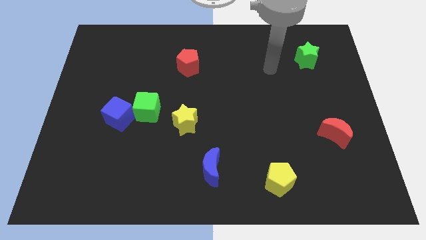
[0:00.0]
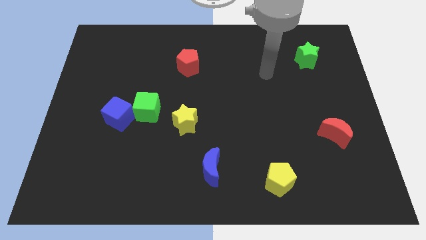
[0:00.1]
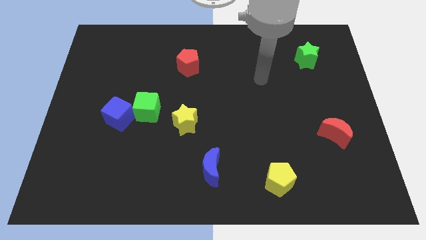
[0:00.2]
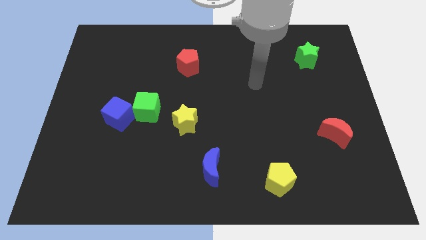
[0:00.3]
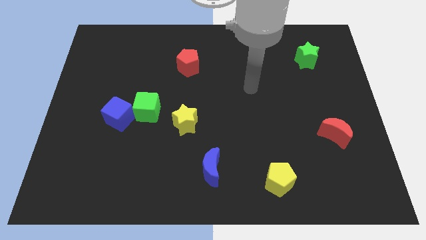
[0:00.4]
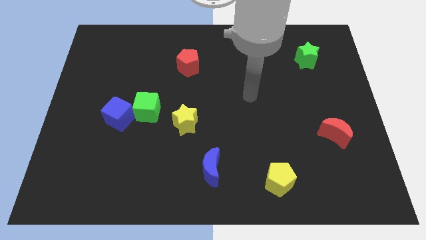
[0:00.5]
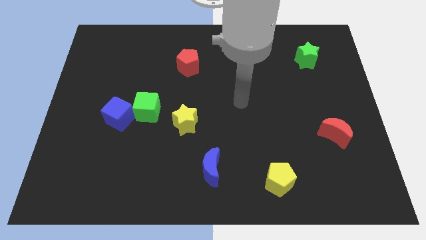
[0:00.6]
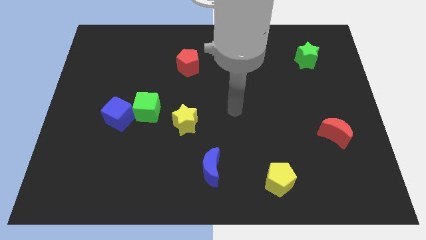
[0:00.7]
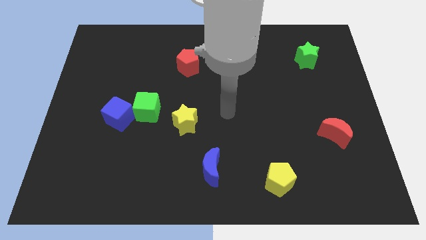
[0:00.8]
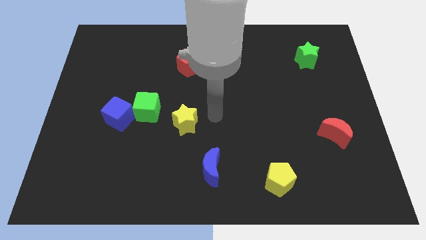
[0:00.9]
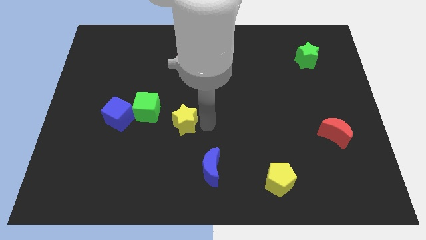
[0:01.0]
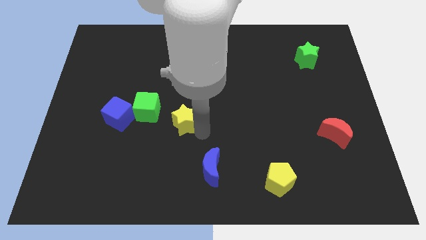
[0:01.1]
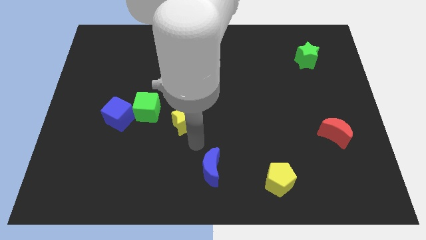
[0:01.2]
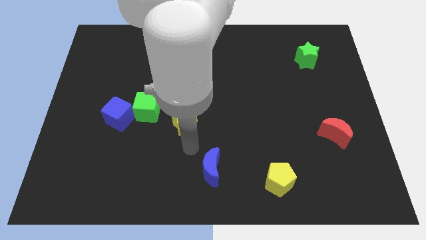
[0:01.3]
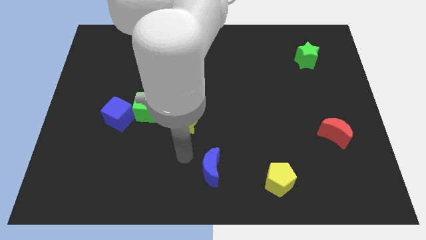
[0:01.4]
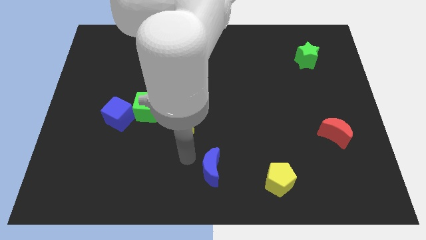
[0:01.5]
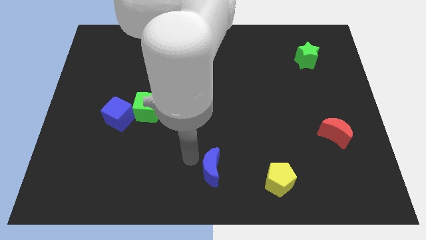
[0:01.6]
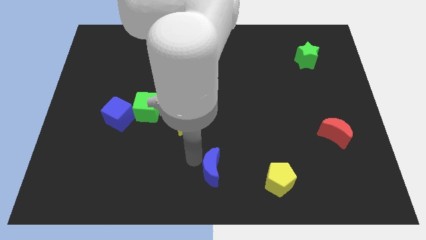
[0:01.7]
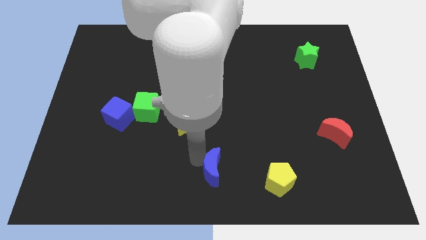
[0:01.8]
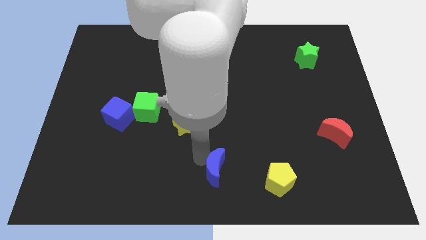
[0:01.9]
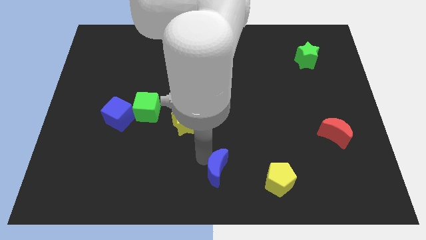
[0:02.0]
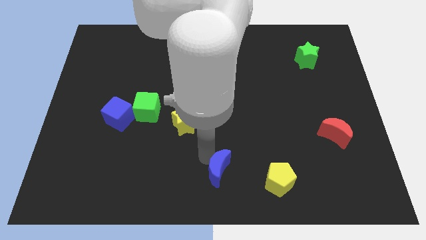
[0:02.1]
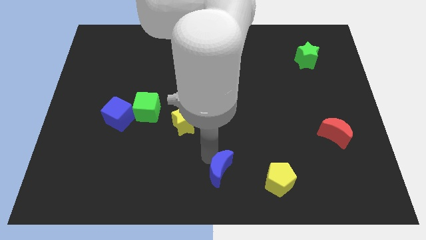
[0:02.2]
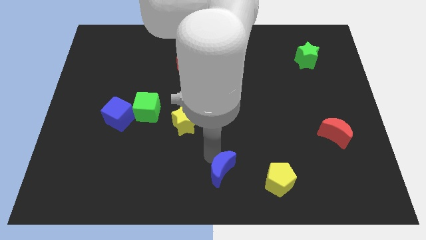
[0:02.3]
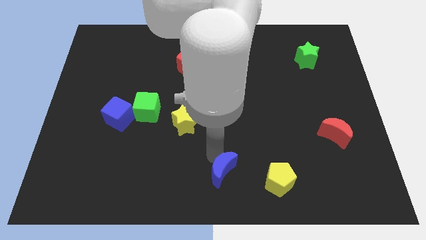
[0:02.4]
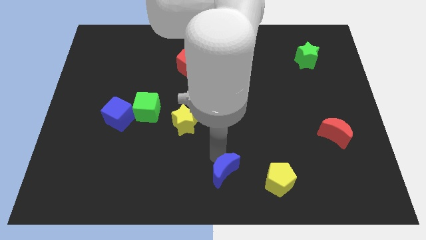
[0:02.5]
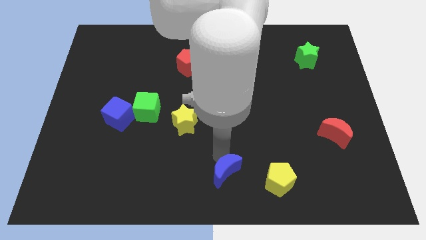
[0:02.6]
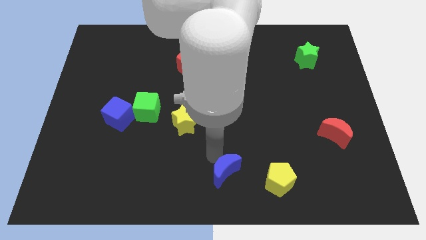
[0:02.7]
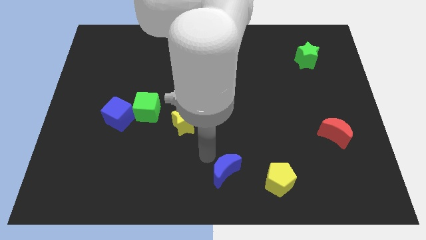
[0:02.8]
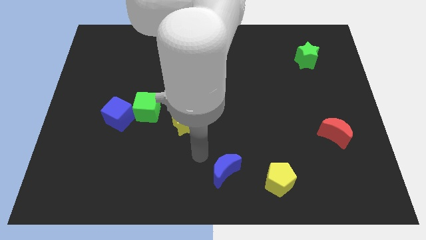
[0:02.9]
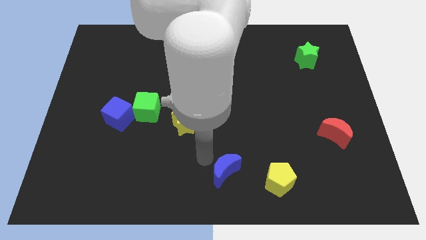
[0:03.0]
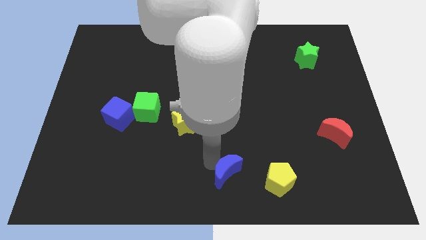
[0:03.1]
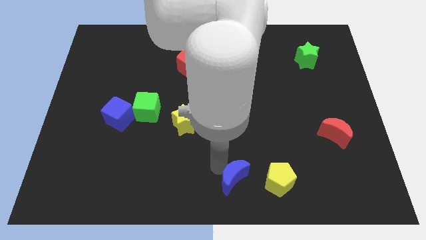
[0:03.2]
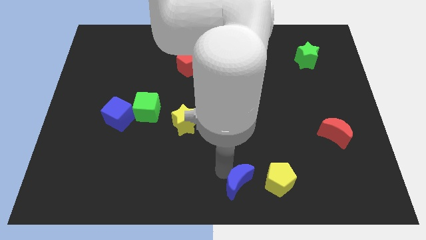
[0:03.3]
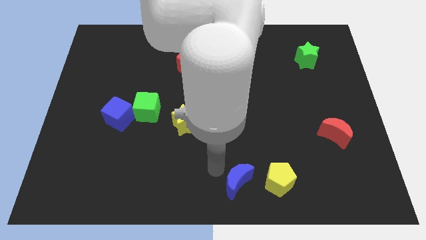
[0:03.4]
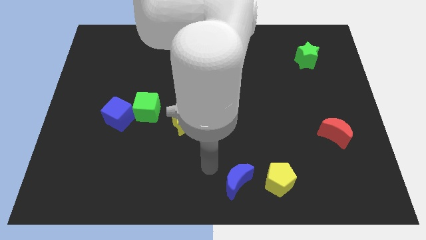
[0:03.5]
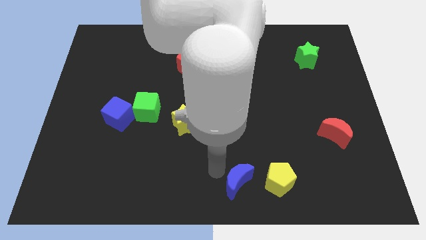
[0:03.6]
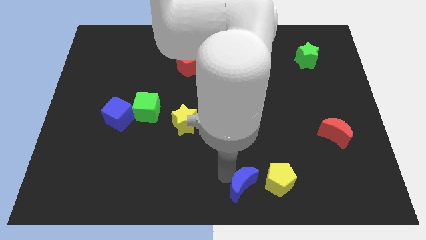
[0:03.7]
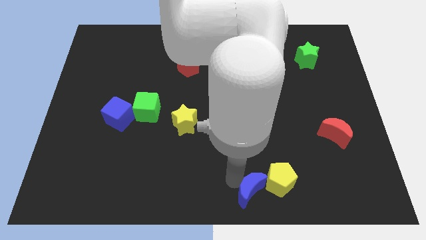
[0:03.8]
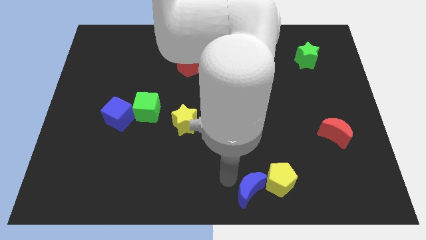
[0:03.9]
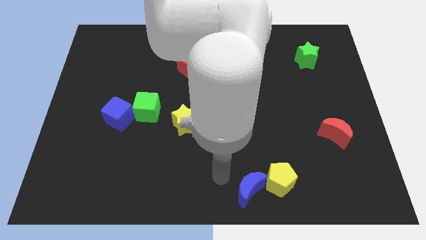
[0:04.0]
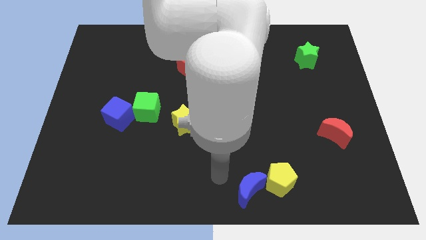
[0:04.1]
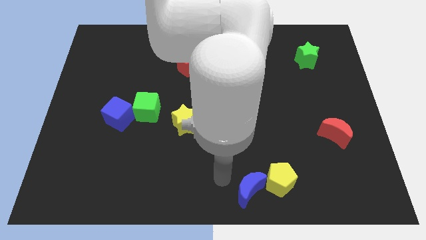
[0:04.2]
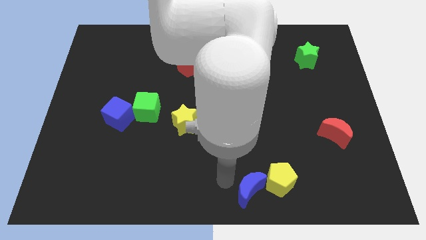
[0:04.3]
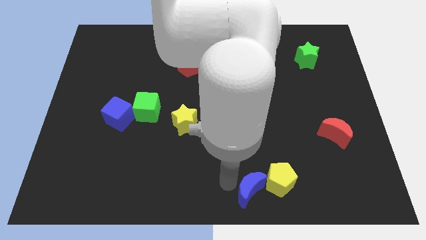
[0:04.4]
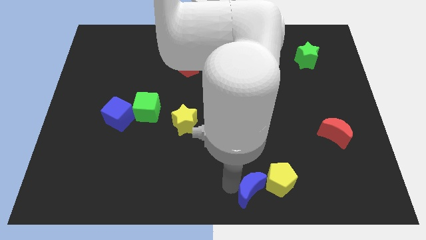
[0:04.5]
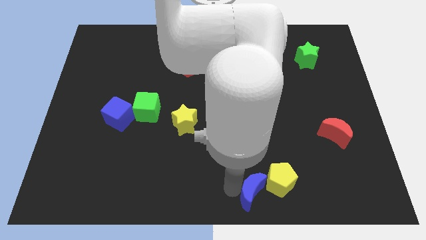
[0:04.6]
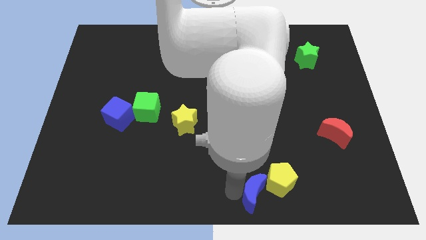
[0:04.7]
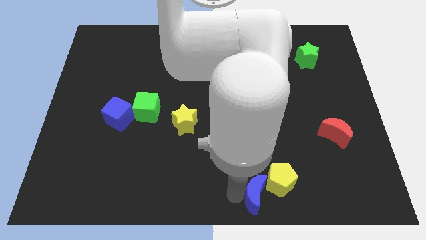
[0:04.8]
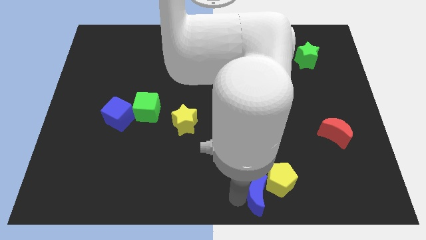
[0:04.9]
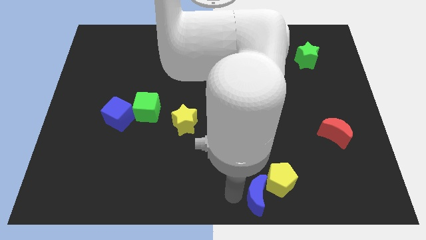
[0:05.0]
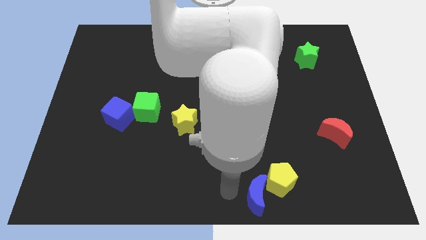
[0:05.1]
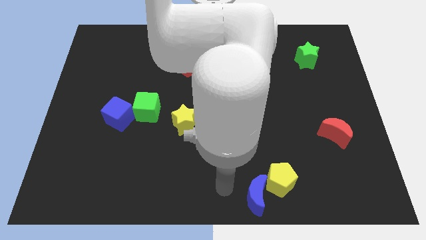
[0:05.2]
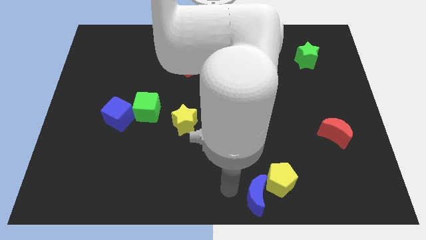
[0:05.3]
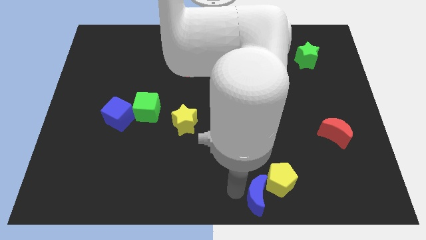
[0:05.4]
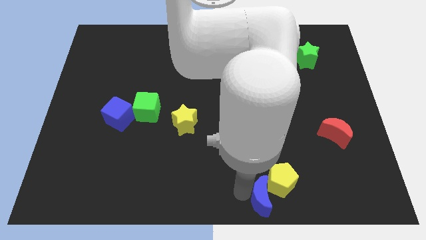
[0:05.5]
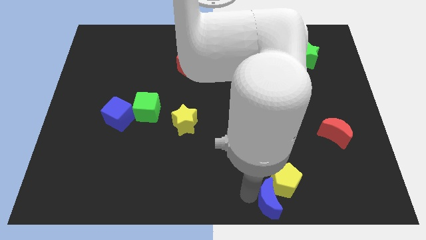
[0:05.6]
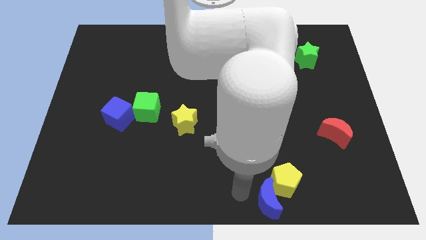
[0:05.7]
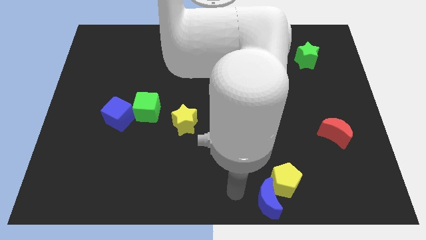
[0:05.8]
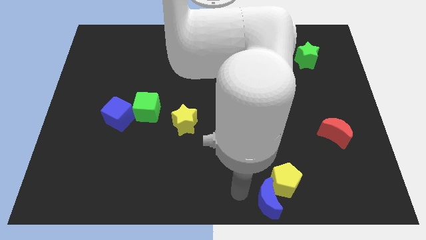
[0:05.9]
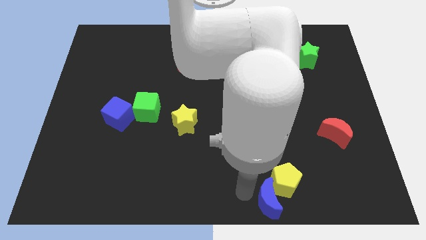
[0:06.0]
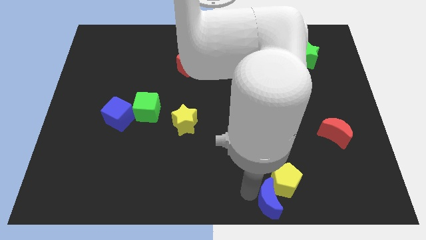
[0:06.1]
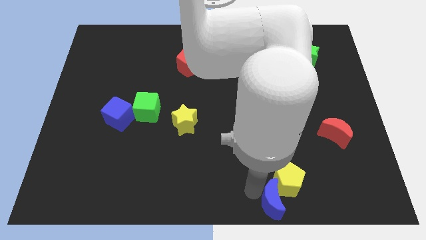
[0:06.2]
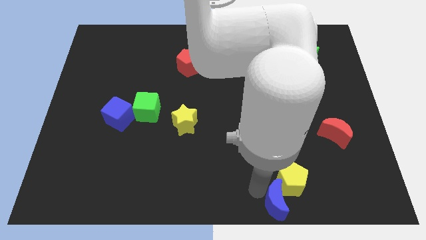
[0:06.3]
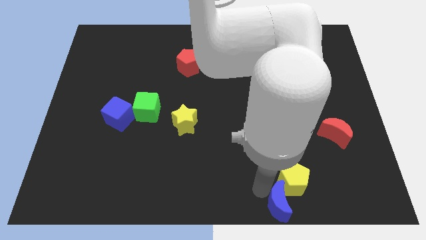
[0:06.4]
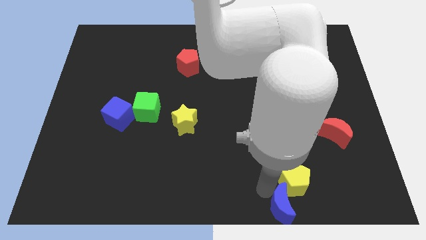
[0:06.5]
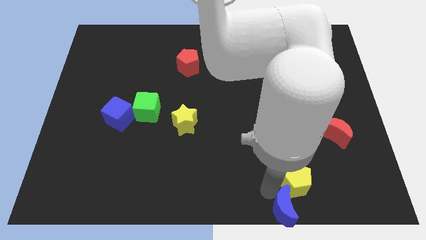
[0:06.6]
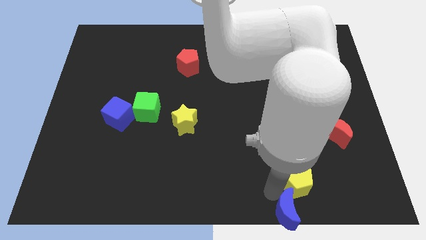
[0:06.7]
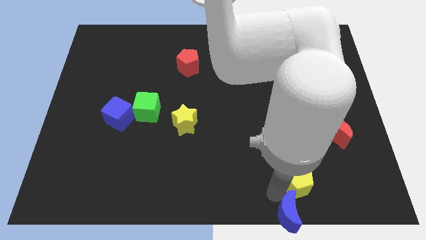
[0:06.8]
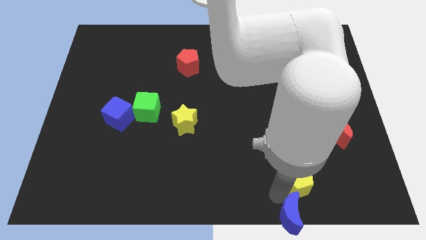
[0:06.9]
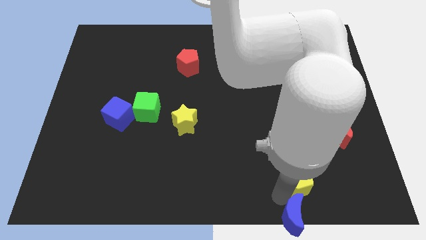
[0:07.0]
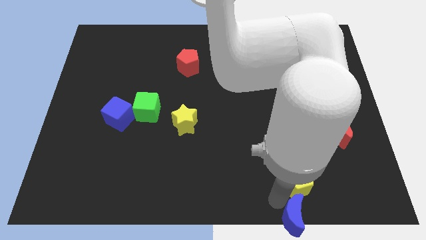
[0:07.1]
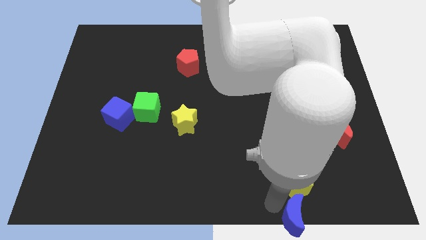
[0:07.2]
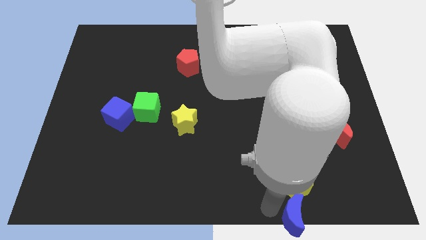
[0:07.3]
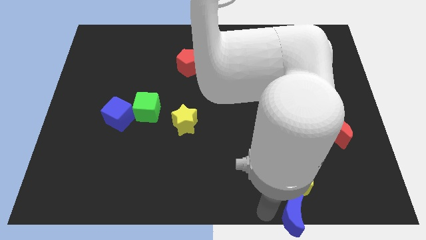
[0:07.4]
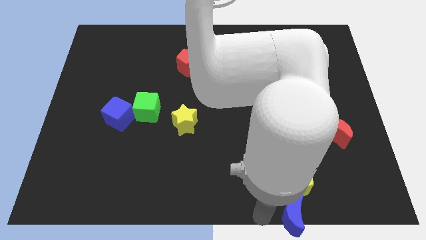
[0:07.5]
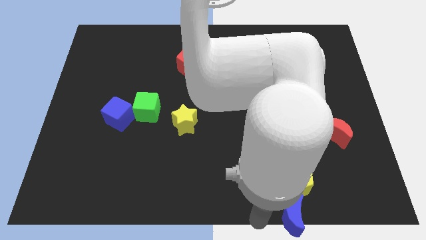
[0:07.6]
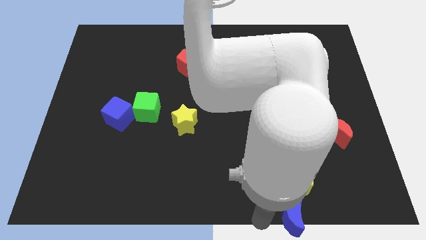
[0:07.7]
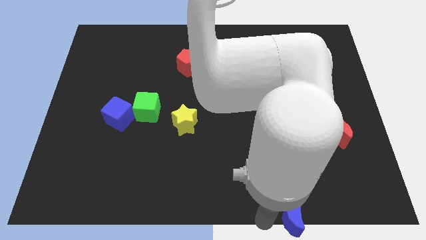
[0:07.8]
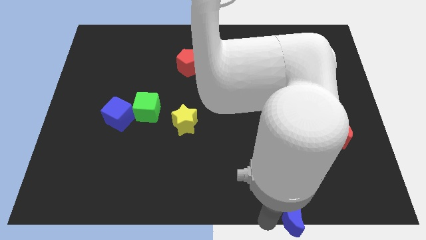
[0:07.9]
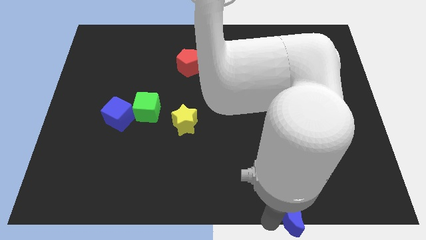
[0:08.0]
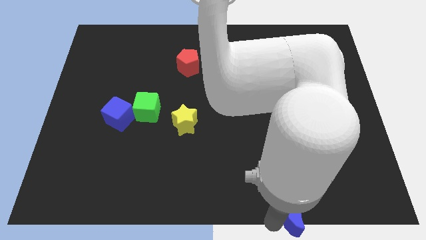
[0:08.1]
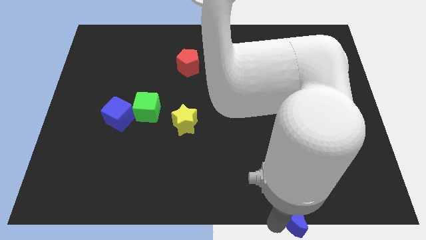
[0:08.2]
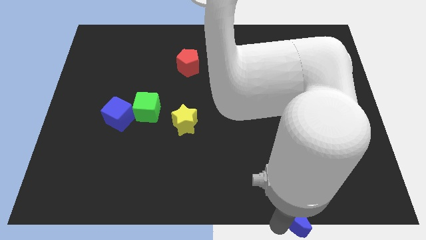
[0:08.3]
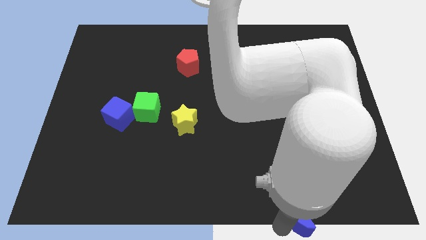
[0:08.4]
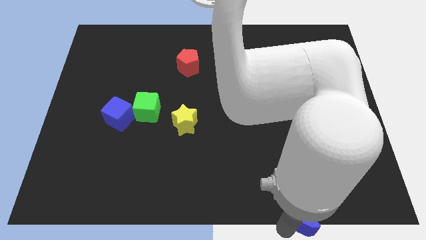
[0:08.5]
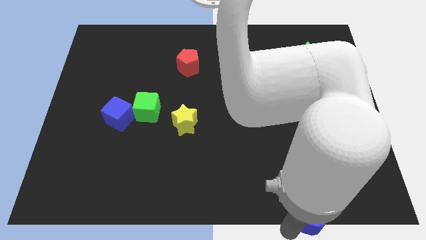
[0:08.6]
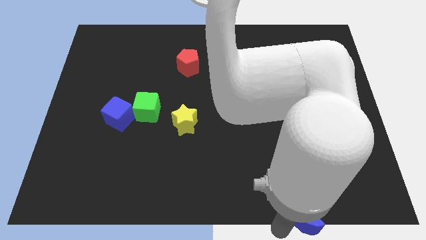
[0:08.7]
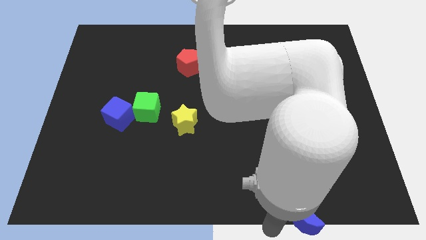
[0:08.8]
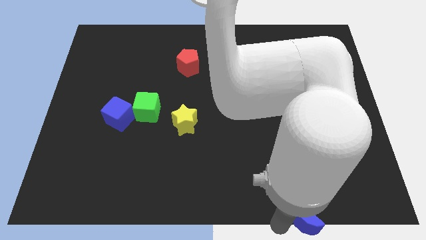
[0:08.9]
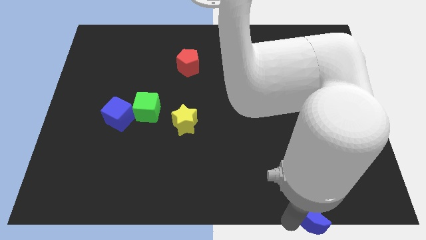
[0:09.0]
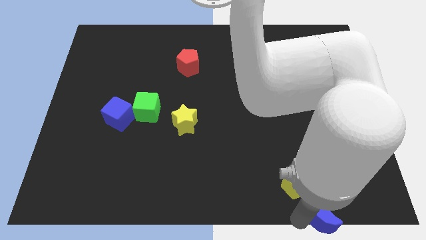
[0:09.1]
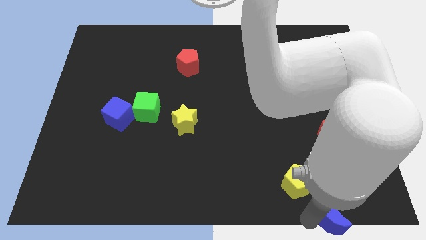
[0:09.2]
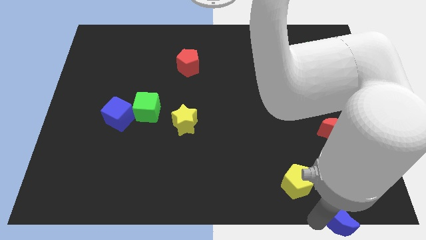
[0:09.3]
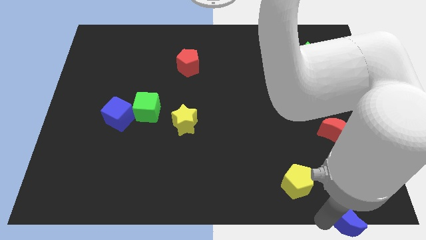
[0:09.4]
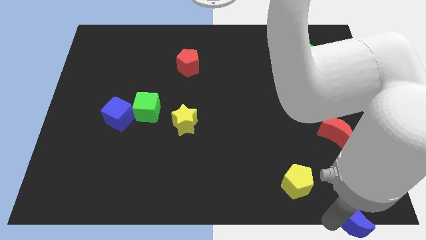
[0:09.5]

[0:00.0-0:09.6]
put the blue moon to the bottom right of the board
